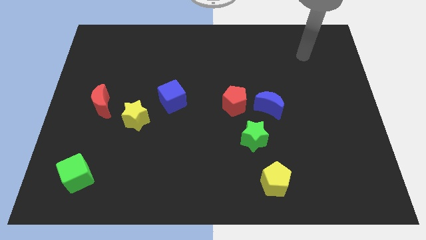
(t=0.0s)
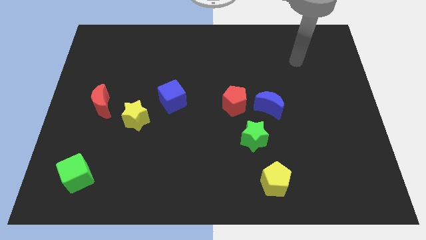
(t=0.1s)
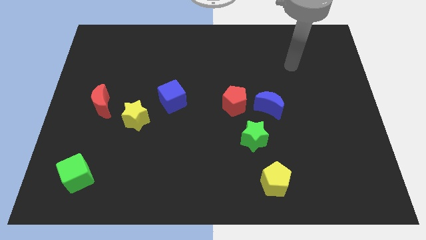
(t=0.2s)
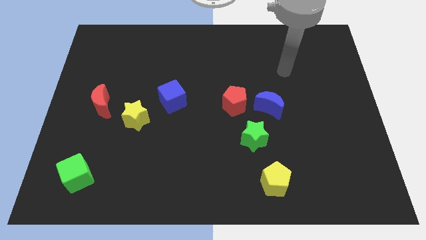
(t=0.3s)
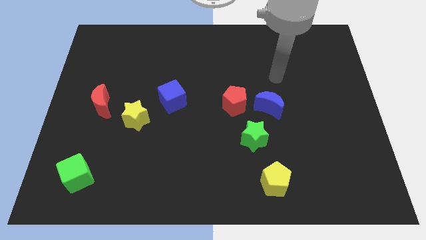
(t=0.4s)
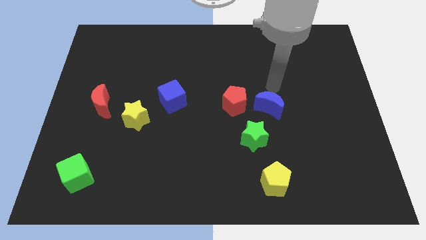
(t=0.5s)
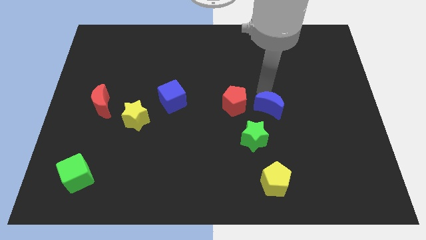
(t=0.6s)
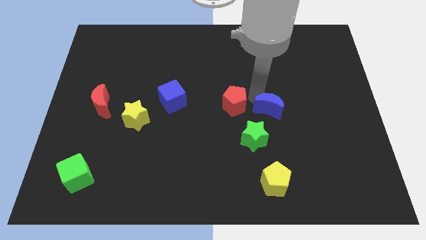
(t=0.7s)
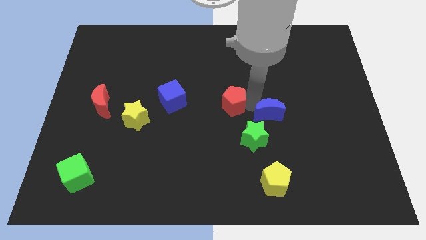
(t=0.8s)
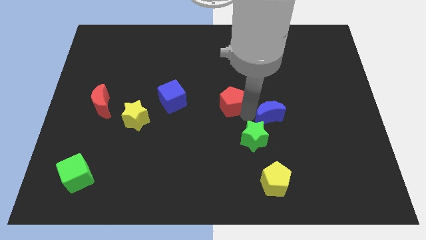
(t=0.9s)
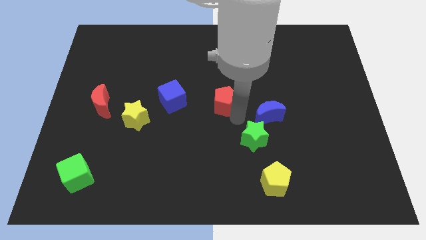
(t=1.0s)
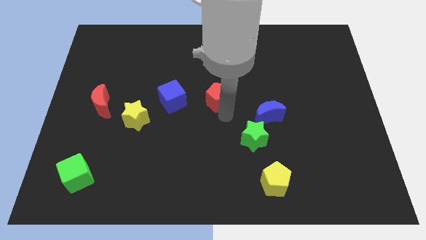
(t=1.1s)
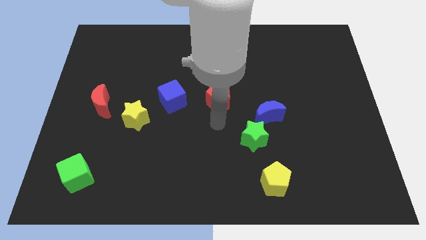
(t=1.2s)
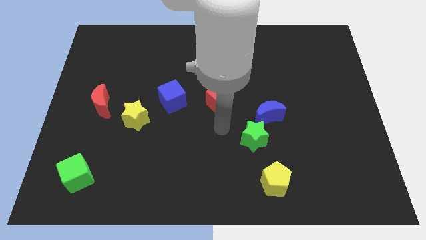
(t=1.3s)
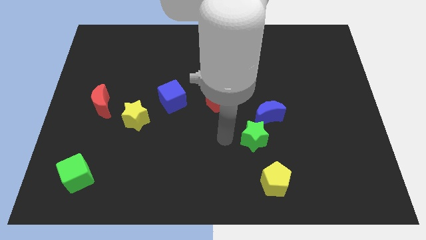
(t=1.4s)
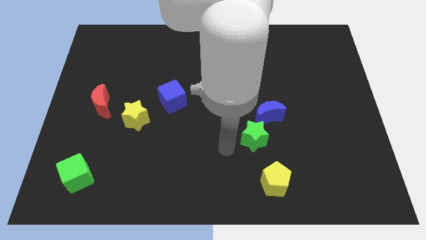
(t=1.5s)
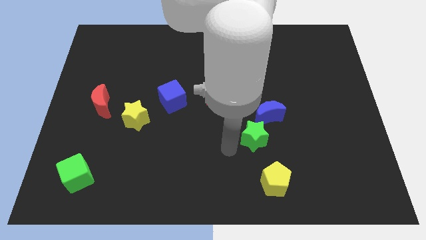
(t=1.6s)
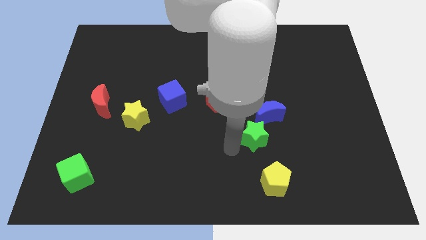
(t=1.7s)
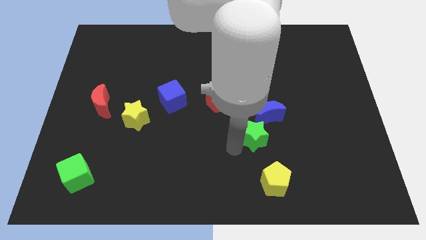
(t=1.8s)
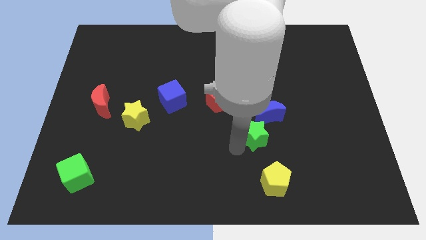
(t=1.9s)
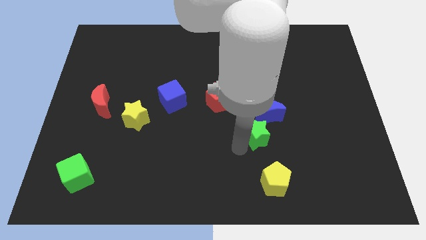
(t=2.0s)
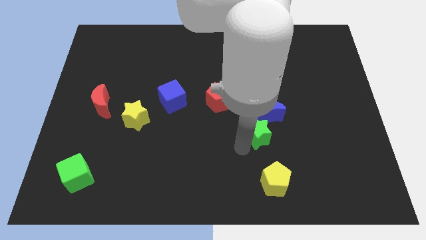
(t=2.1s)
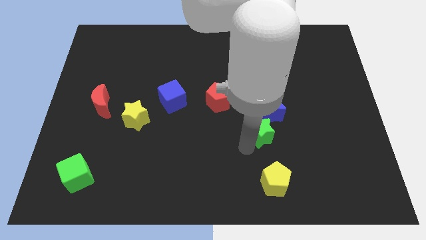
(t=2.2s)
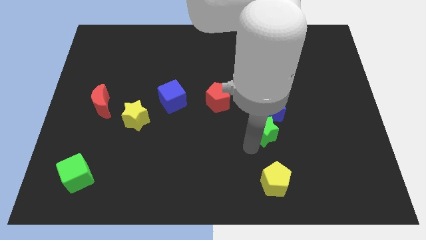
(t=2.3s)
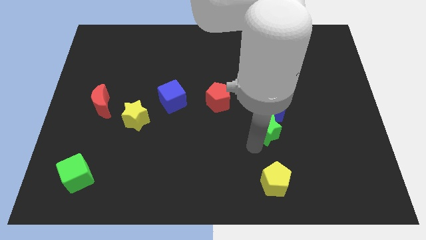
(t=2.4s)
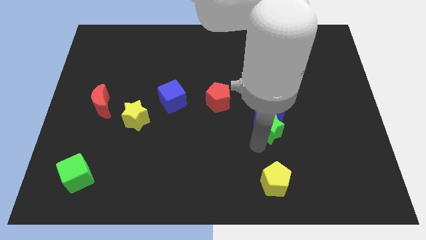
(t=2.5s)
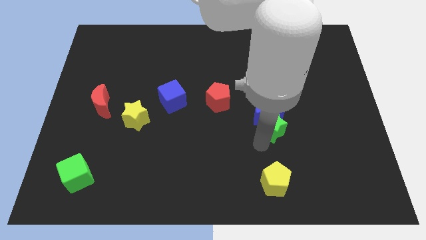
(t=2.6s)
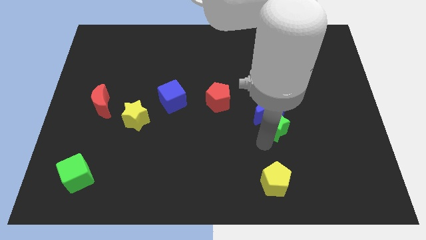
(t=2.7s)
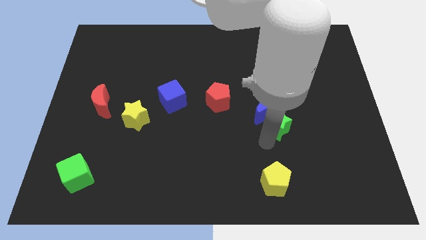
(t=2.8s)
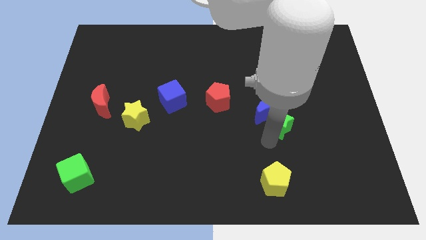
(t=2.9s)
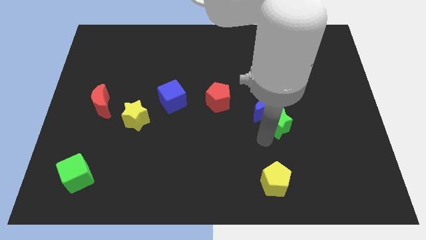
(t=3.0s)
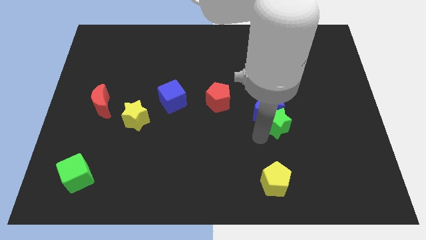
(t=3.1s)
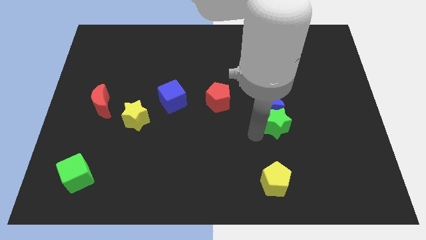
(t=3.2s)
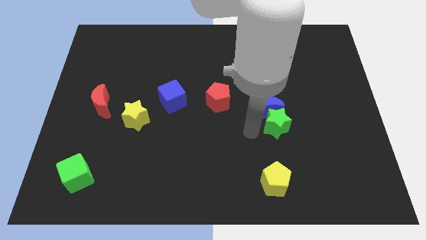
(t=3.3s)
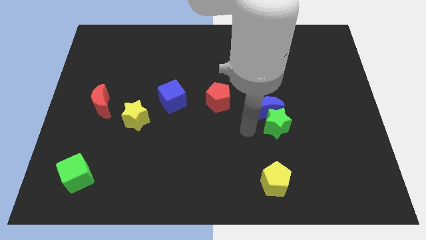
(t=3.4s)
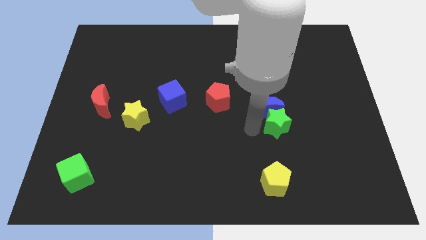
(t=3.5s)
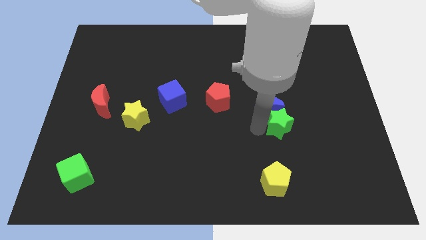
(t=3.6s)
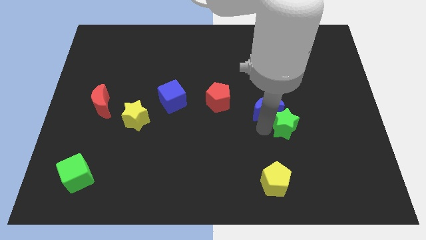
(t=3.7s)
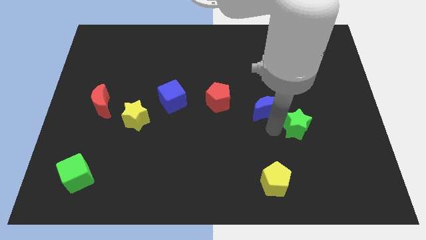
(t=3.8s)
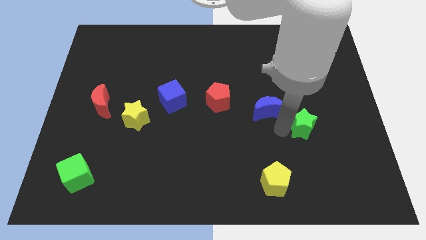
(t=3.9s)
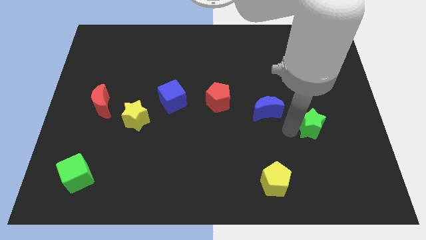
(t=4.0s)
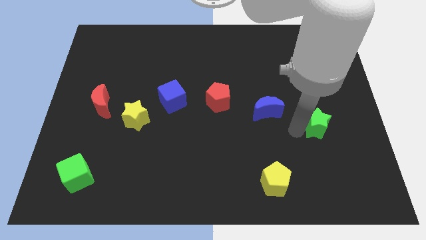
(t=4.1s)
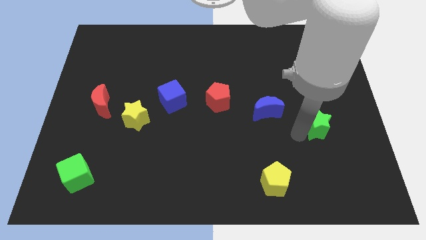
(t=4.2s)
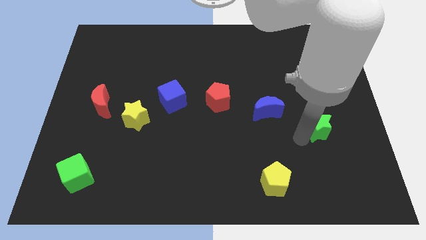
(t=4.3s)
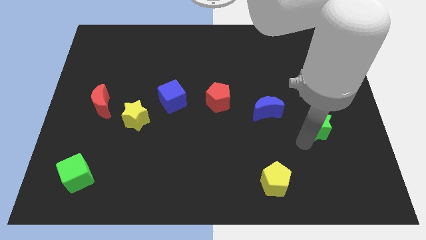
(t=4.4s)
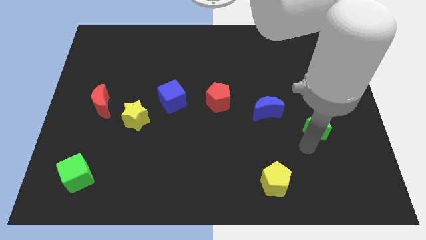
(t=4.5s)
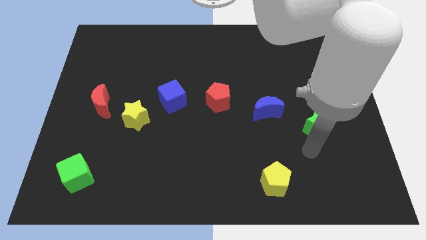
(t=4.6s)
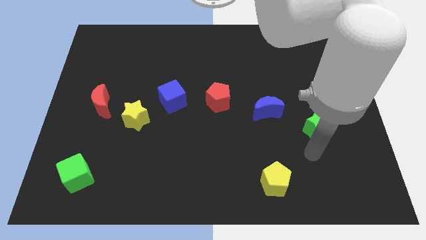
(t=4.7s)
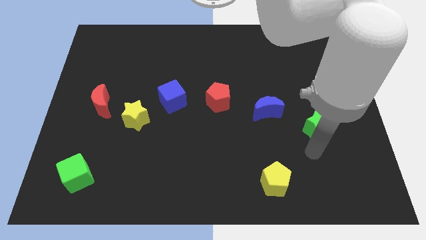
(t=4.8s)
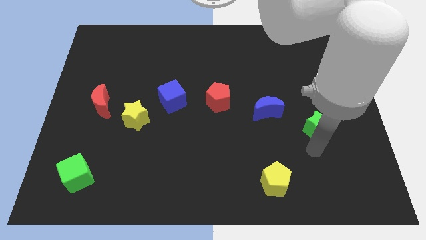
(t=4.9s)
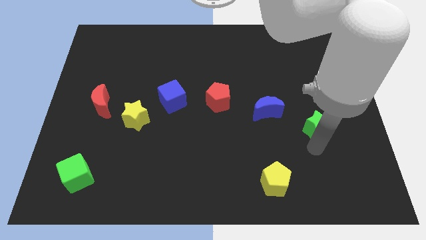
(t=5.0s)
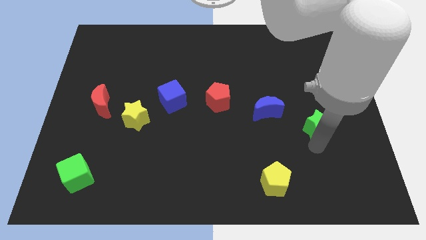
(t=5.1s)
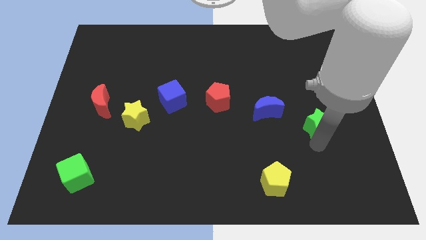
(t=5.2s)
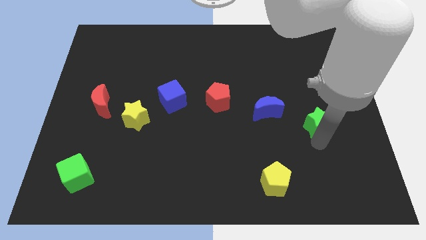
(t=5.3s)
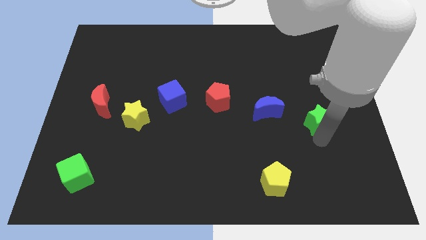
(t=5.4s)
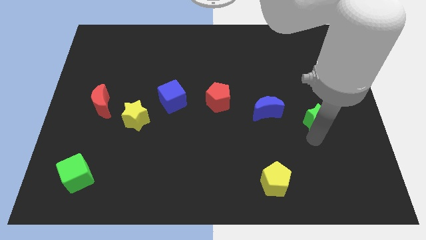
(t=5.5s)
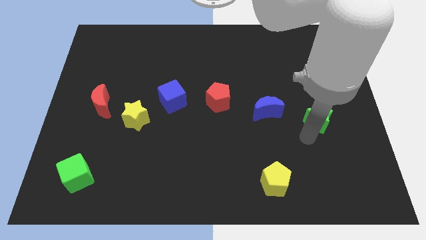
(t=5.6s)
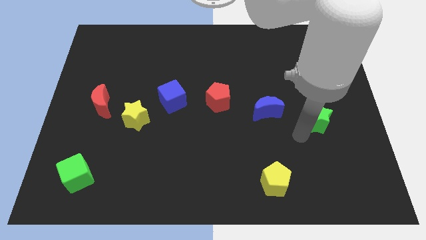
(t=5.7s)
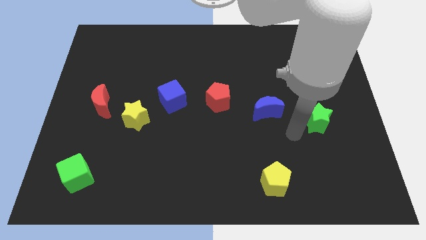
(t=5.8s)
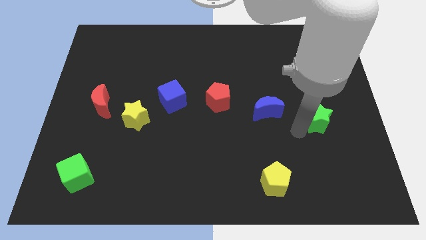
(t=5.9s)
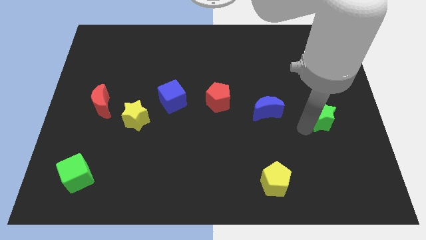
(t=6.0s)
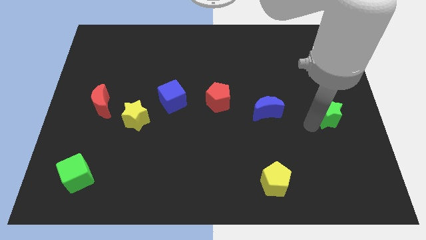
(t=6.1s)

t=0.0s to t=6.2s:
push the green star to the center right
